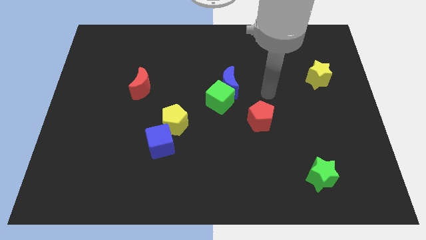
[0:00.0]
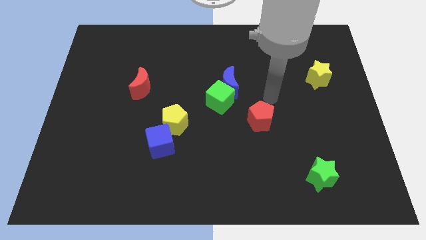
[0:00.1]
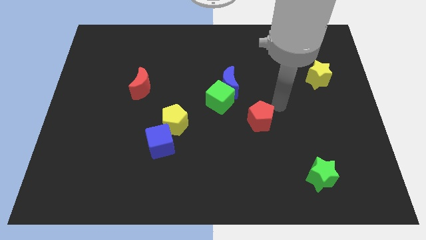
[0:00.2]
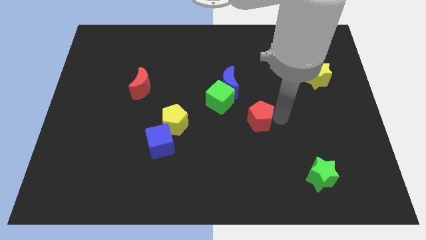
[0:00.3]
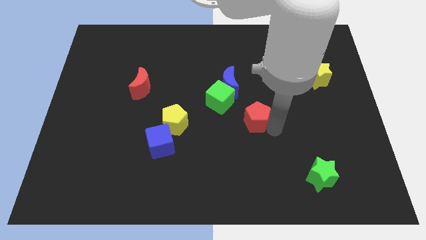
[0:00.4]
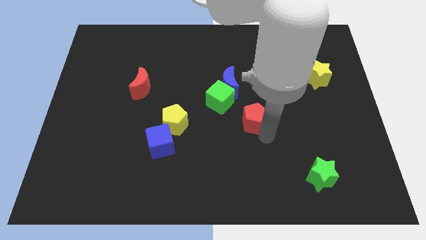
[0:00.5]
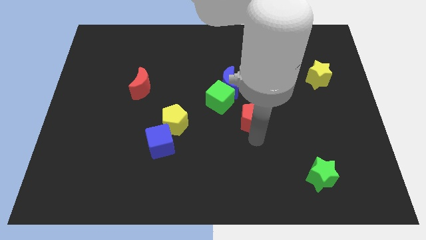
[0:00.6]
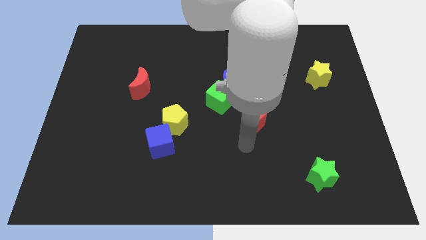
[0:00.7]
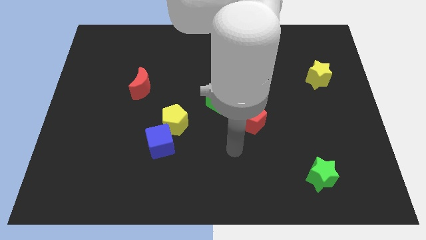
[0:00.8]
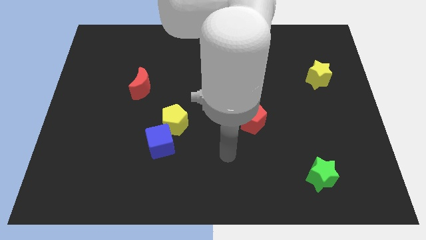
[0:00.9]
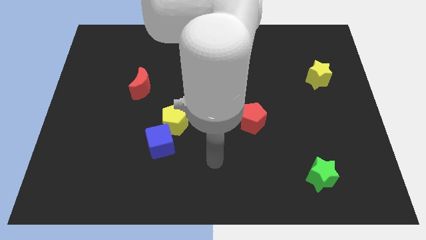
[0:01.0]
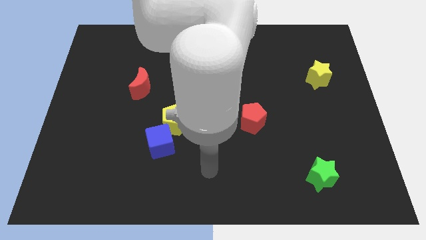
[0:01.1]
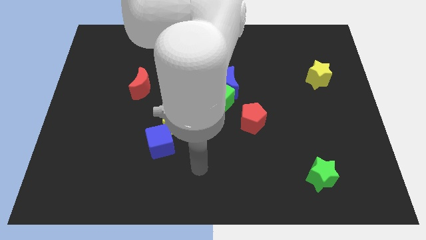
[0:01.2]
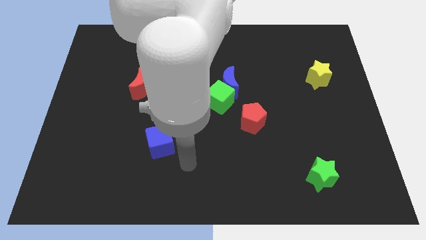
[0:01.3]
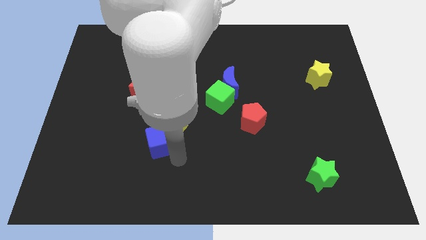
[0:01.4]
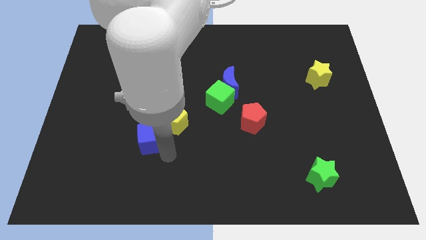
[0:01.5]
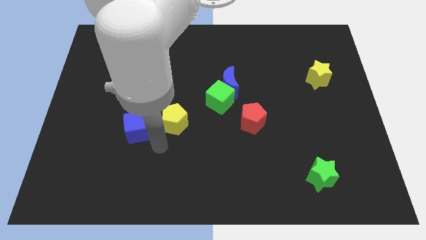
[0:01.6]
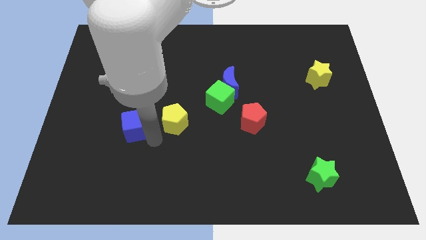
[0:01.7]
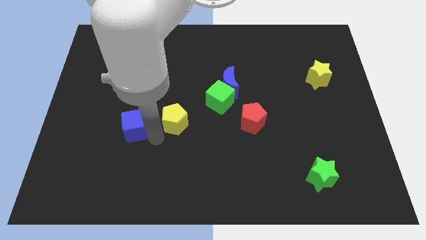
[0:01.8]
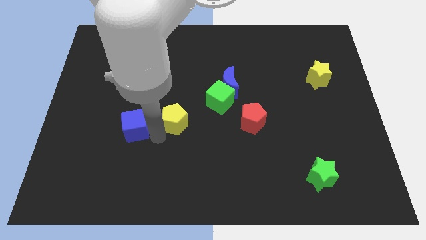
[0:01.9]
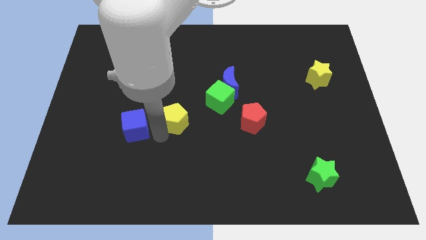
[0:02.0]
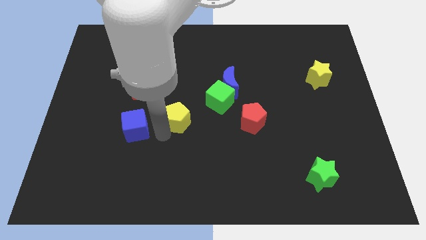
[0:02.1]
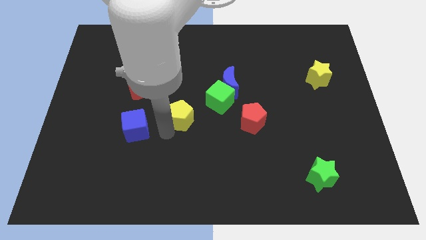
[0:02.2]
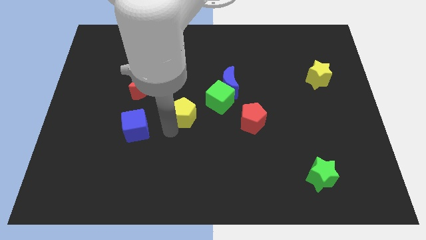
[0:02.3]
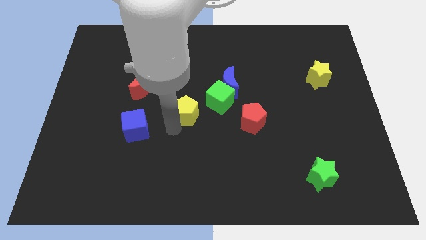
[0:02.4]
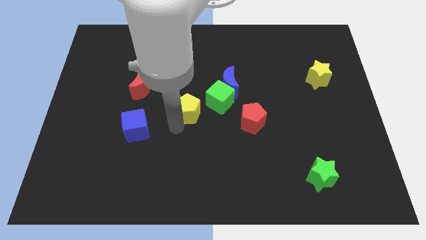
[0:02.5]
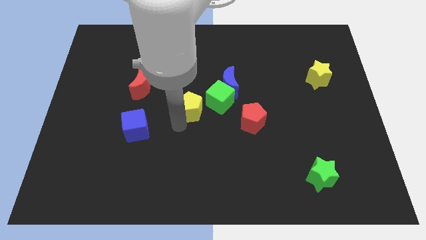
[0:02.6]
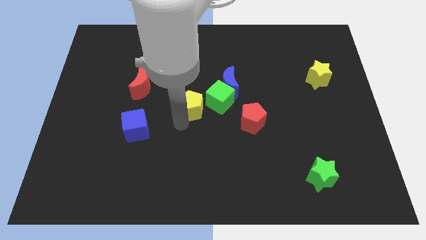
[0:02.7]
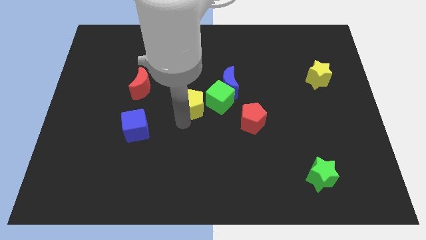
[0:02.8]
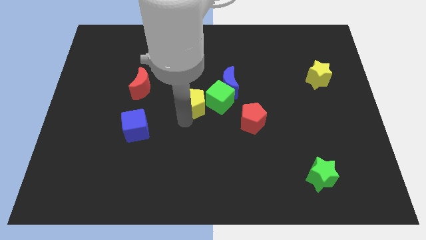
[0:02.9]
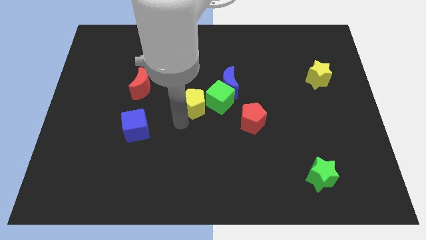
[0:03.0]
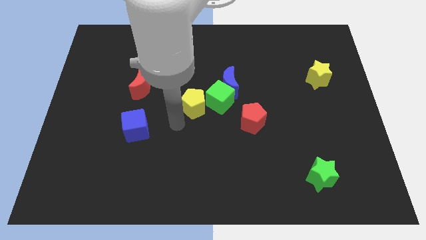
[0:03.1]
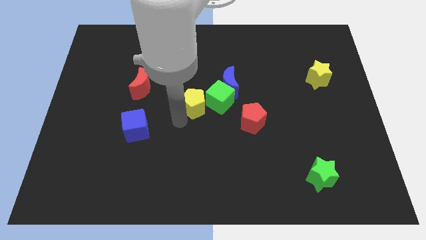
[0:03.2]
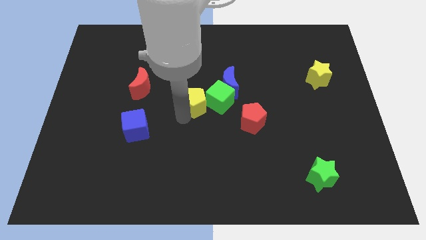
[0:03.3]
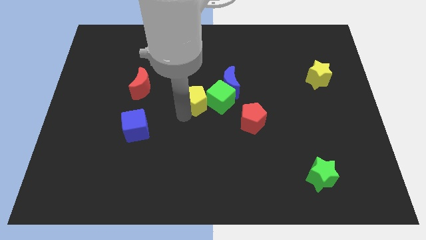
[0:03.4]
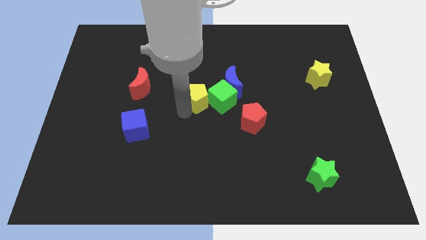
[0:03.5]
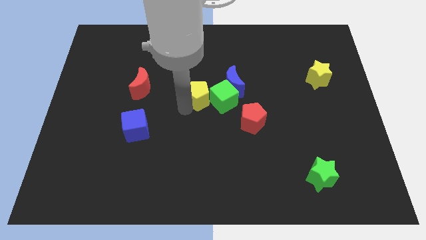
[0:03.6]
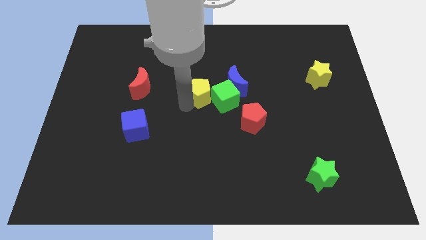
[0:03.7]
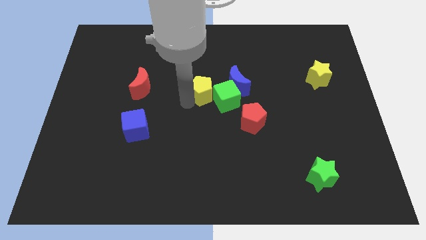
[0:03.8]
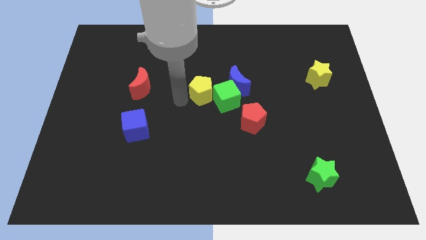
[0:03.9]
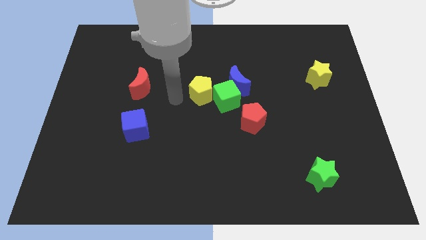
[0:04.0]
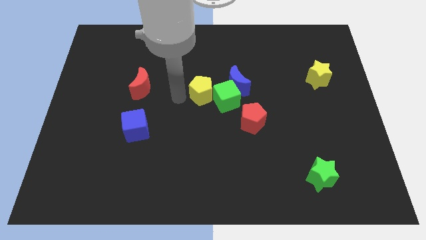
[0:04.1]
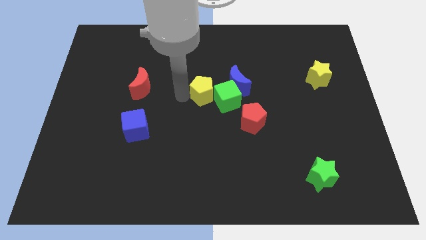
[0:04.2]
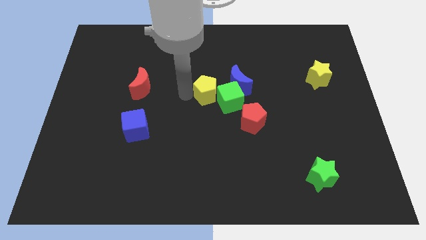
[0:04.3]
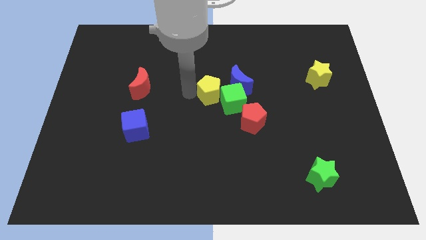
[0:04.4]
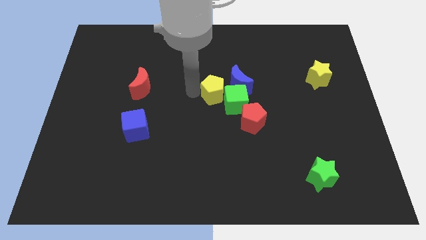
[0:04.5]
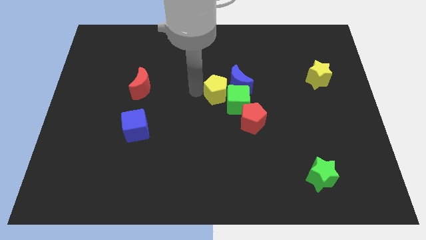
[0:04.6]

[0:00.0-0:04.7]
push the yellow pentagon next to the blue moon

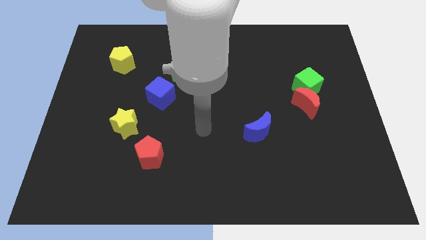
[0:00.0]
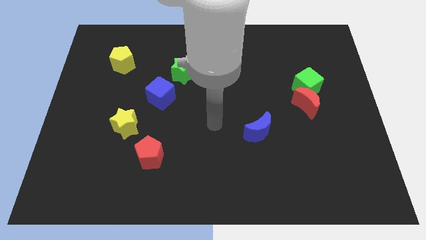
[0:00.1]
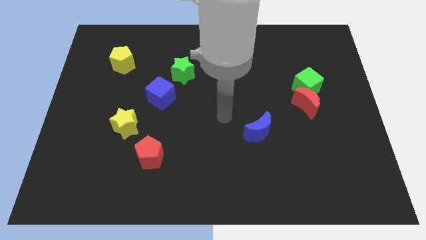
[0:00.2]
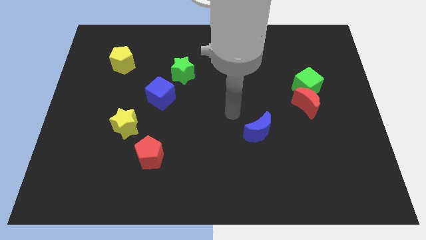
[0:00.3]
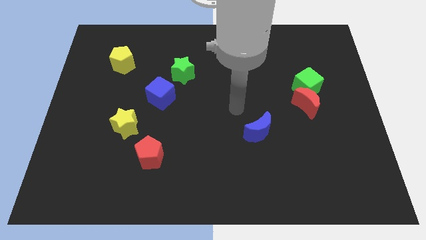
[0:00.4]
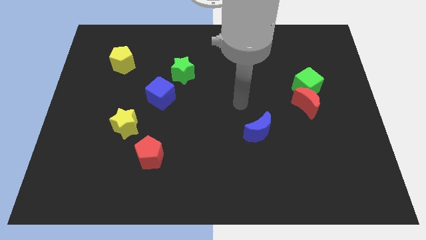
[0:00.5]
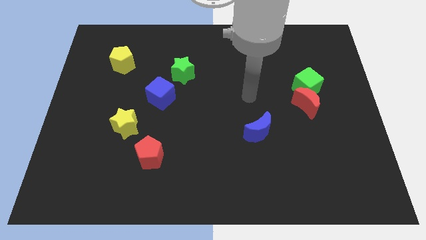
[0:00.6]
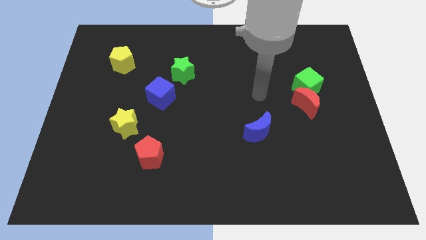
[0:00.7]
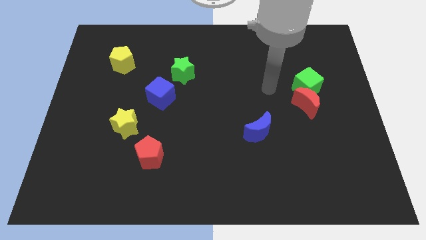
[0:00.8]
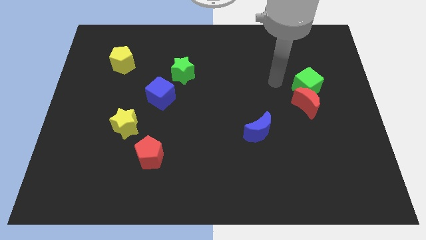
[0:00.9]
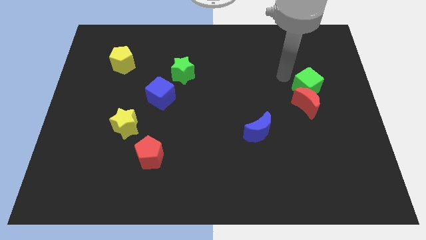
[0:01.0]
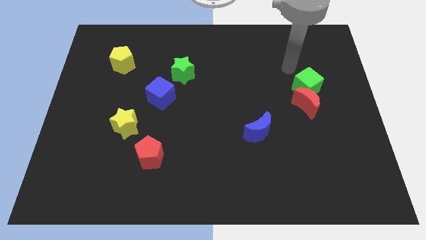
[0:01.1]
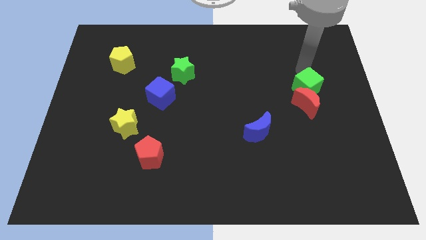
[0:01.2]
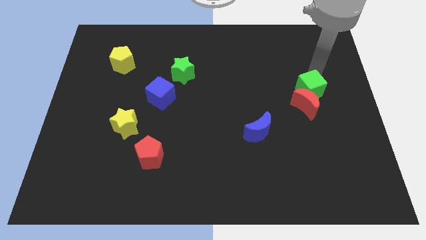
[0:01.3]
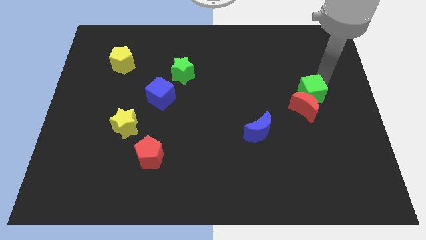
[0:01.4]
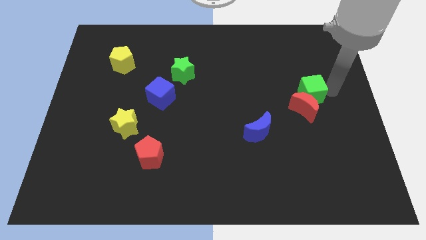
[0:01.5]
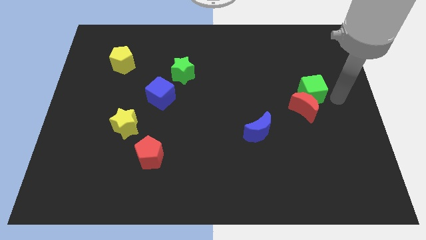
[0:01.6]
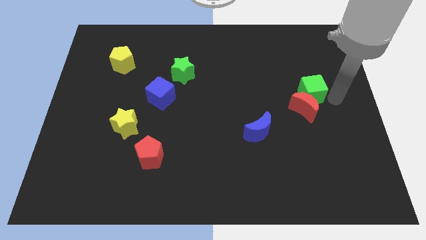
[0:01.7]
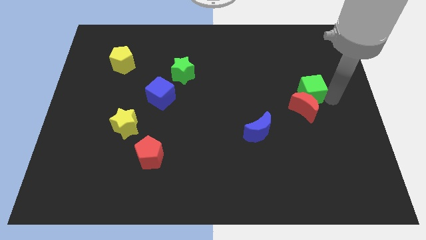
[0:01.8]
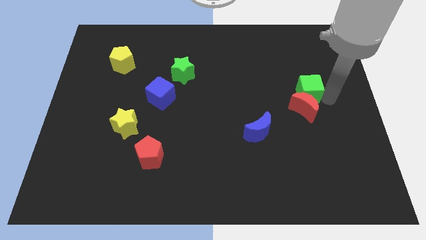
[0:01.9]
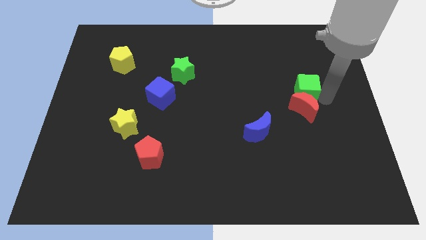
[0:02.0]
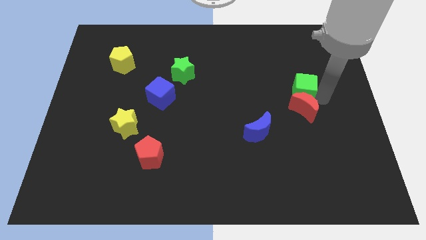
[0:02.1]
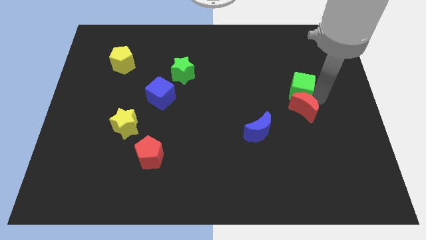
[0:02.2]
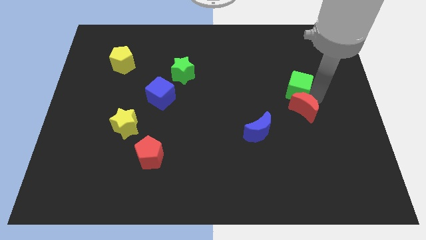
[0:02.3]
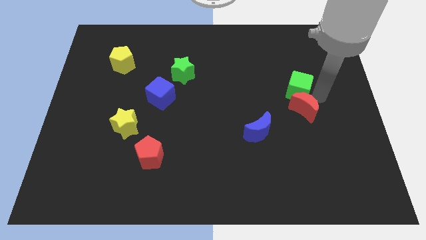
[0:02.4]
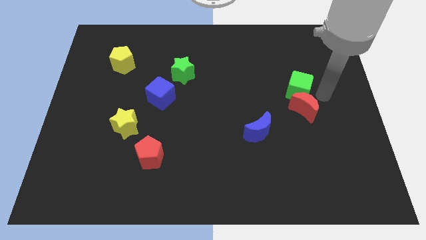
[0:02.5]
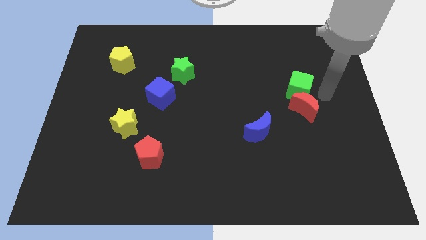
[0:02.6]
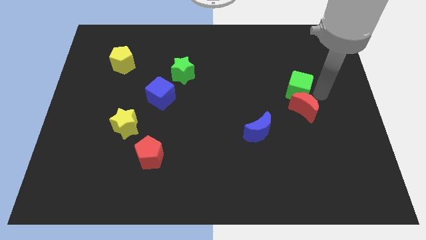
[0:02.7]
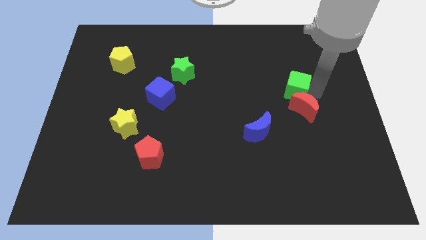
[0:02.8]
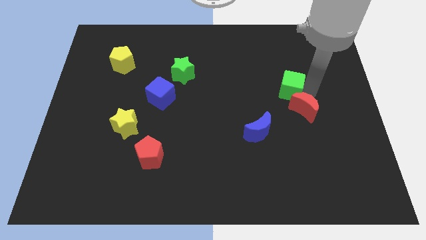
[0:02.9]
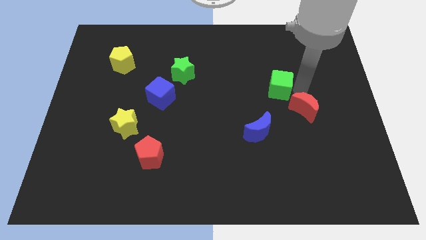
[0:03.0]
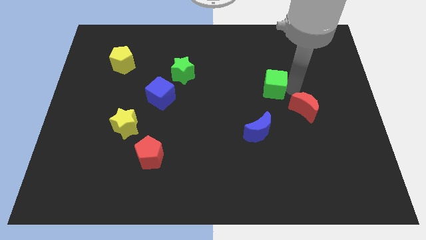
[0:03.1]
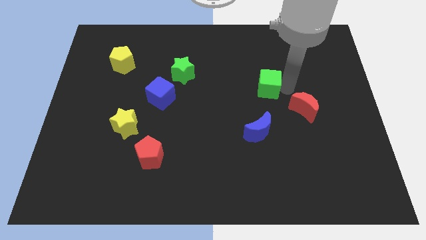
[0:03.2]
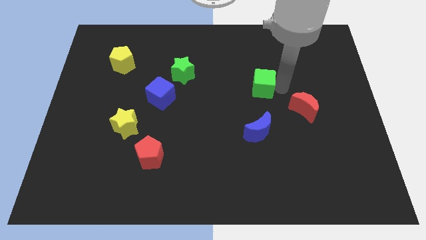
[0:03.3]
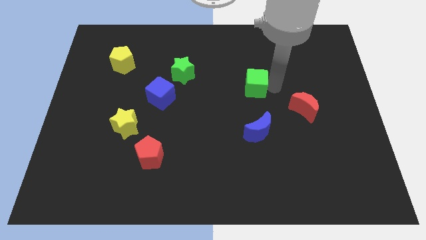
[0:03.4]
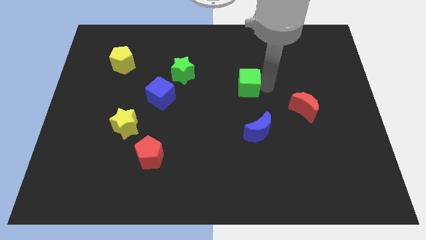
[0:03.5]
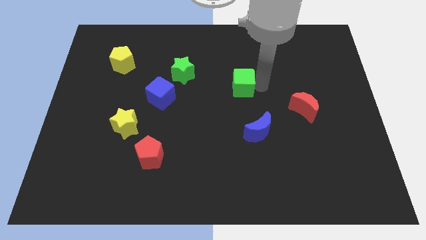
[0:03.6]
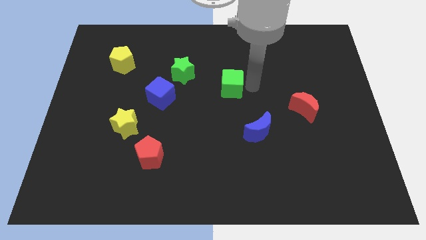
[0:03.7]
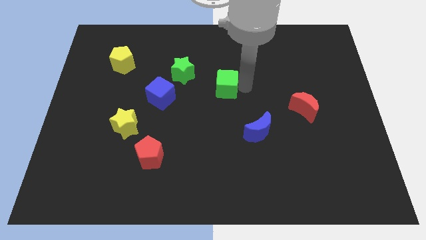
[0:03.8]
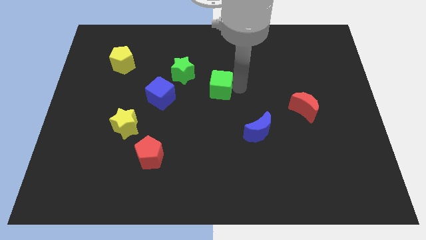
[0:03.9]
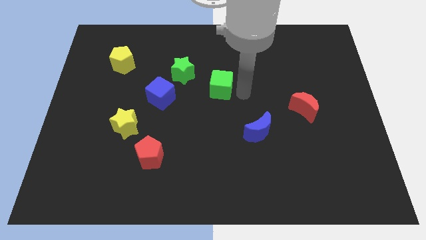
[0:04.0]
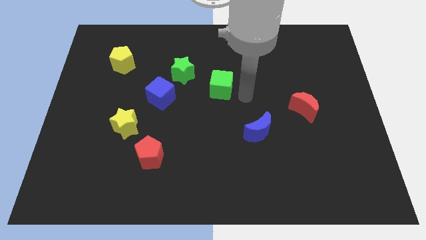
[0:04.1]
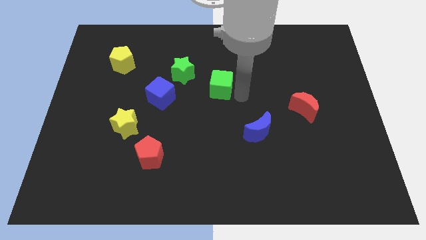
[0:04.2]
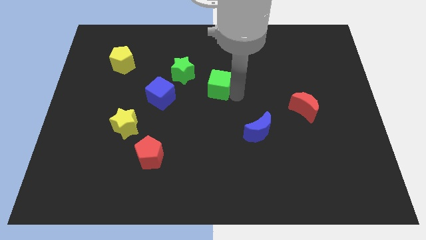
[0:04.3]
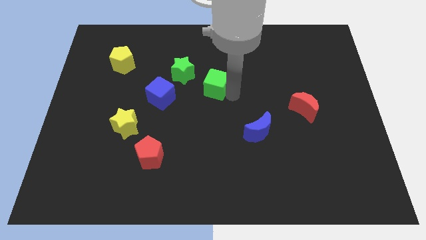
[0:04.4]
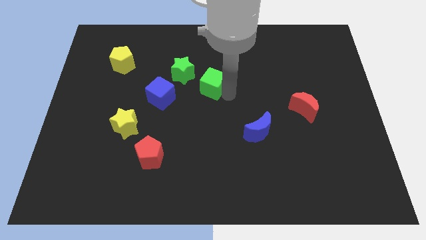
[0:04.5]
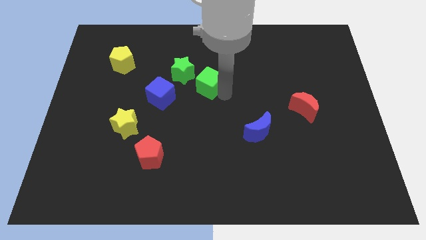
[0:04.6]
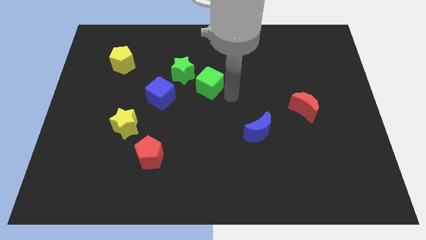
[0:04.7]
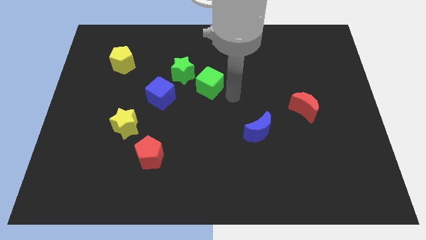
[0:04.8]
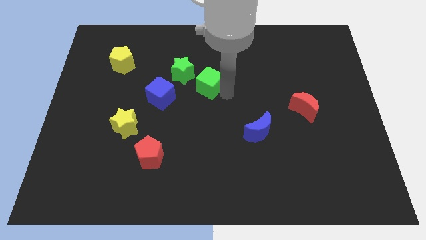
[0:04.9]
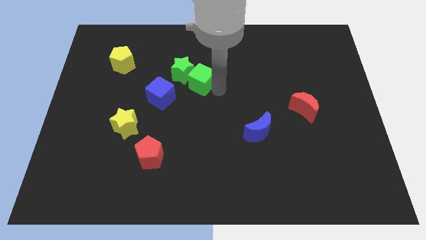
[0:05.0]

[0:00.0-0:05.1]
push the green cube towards the green star
